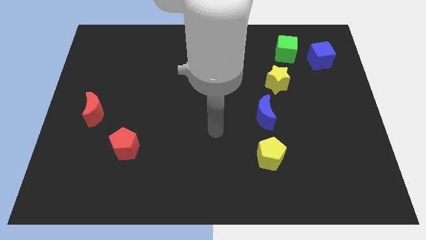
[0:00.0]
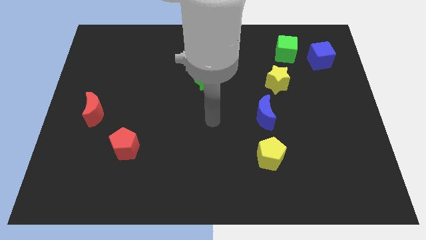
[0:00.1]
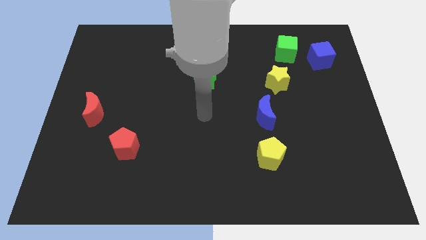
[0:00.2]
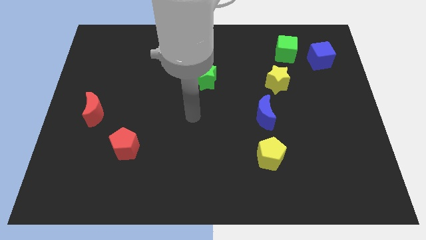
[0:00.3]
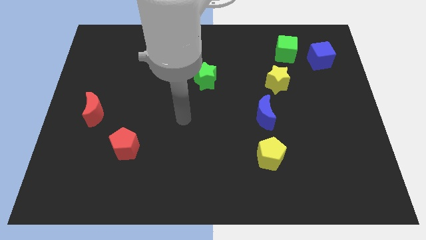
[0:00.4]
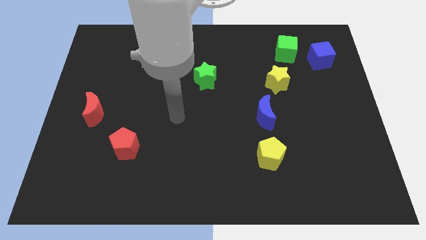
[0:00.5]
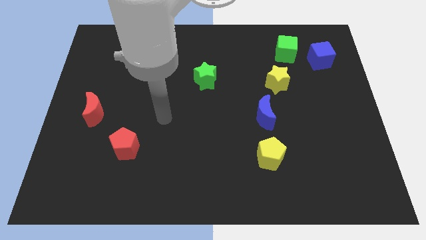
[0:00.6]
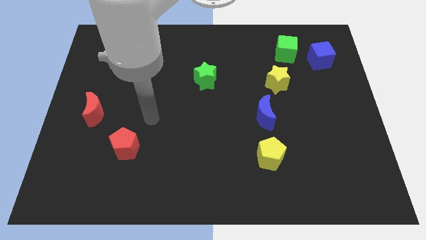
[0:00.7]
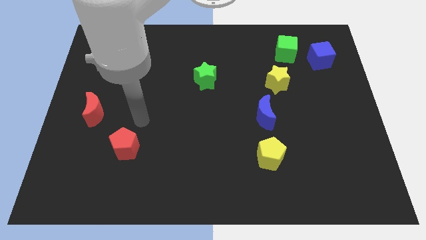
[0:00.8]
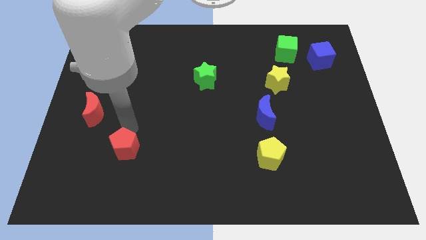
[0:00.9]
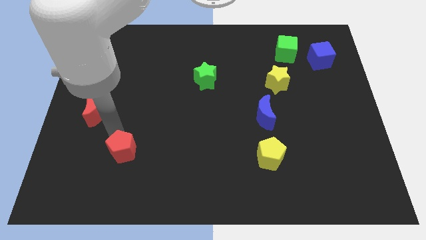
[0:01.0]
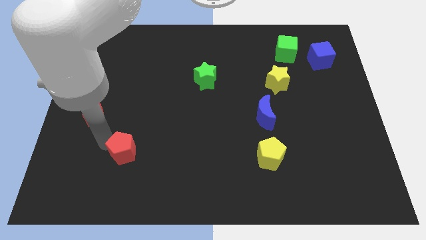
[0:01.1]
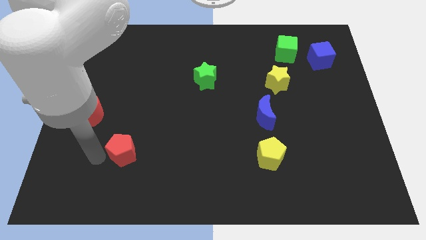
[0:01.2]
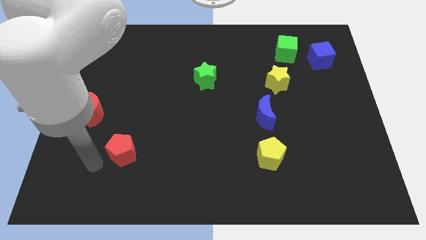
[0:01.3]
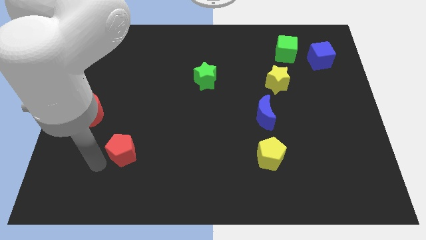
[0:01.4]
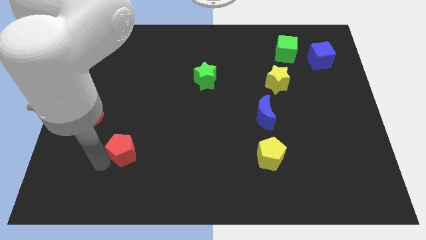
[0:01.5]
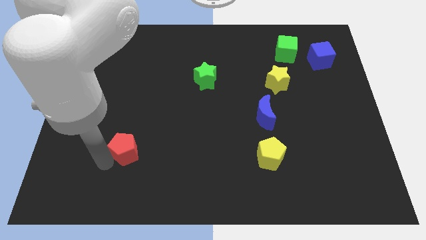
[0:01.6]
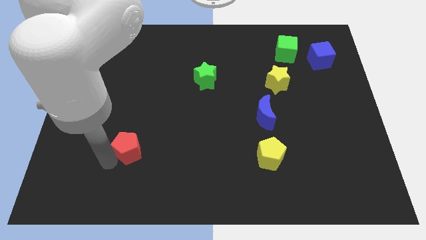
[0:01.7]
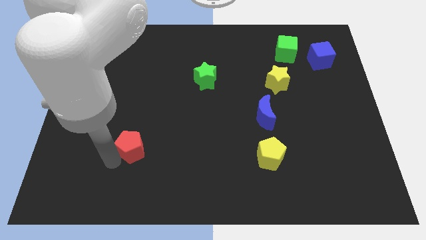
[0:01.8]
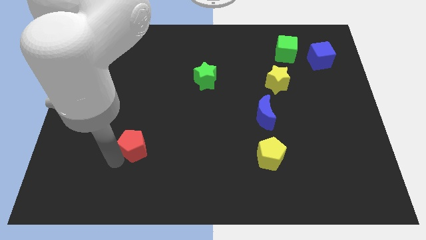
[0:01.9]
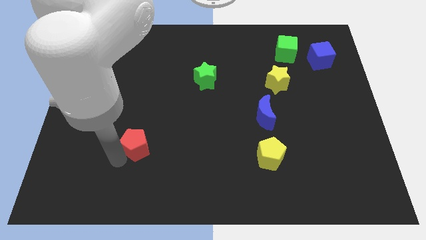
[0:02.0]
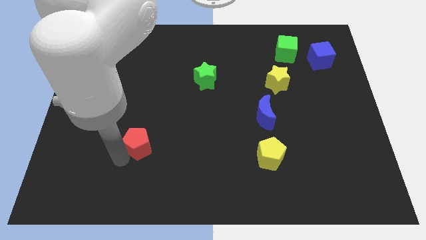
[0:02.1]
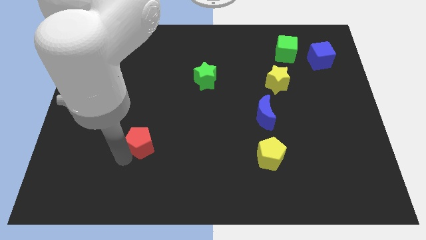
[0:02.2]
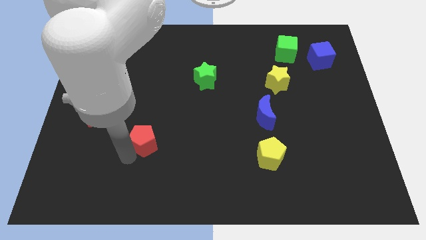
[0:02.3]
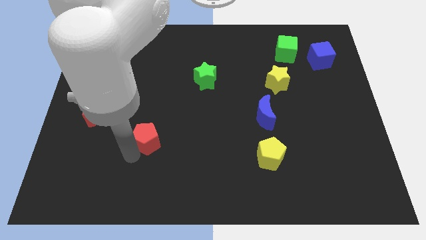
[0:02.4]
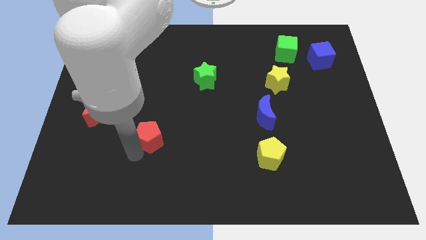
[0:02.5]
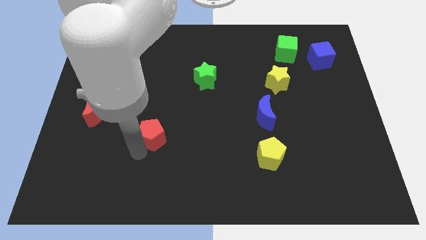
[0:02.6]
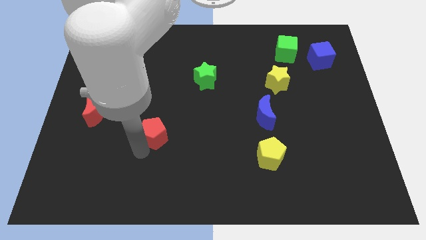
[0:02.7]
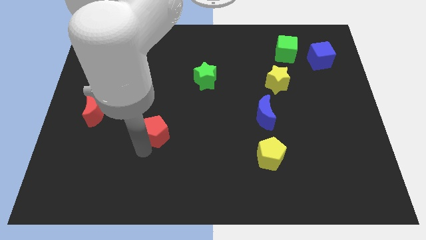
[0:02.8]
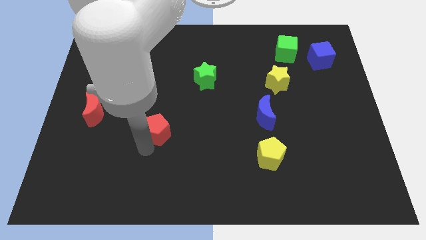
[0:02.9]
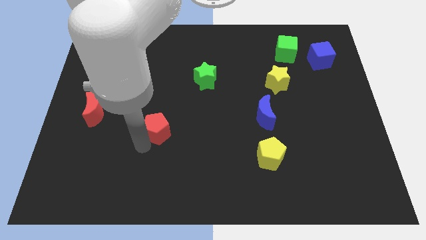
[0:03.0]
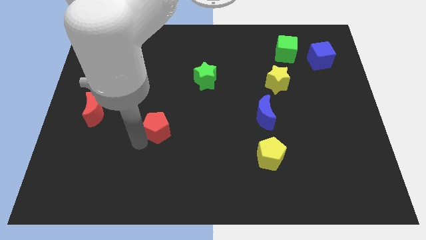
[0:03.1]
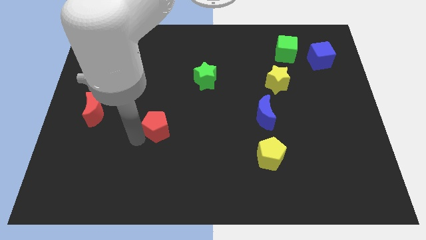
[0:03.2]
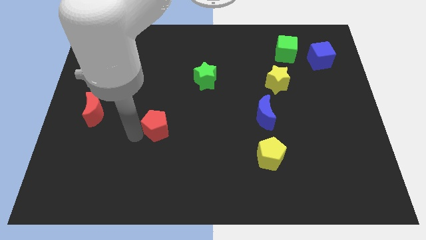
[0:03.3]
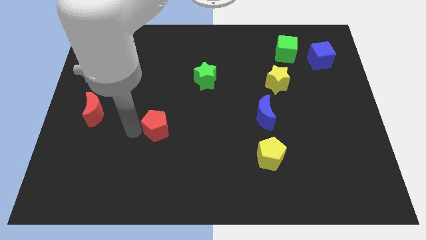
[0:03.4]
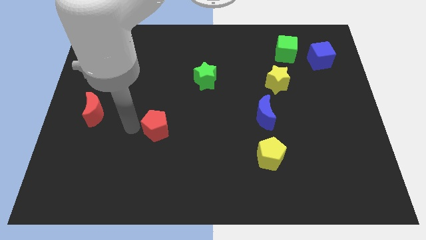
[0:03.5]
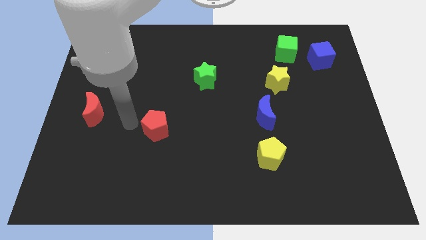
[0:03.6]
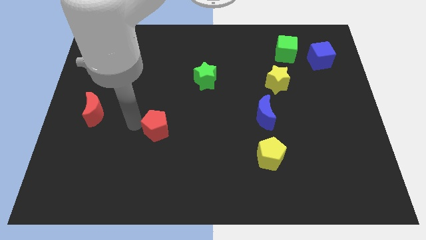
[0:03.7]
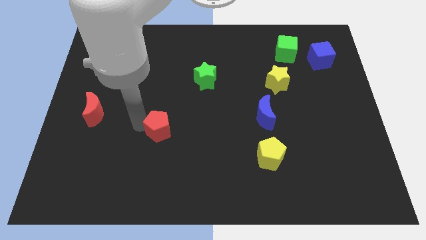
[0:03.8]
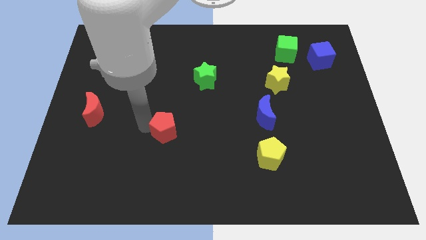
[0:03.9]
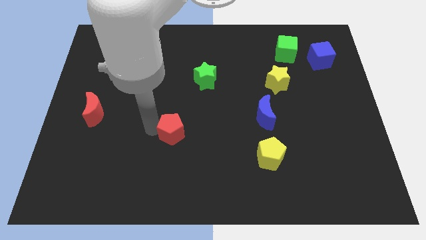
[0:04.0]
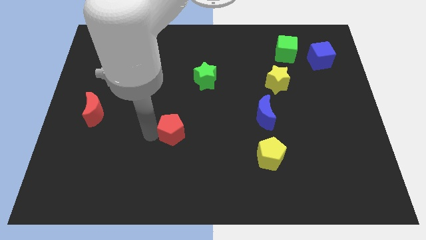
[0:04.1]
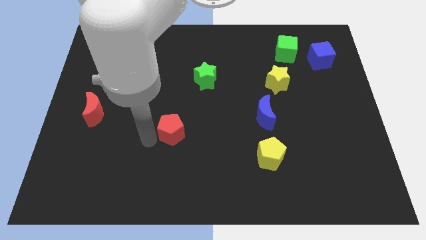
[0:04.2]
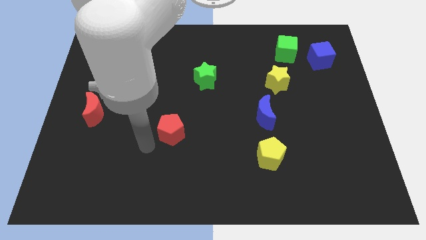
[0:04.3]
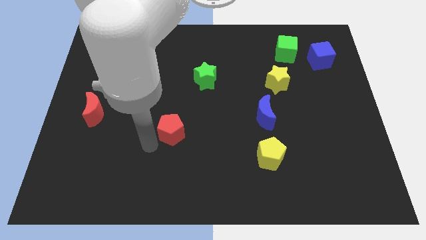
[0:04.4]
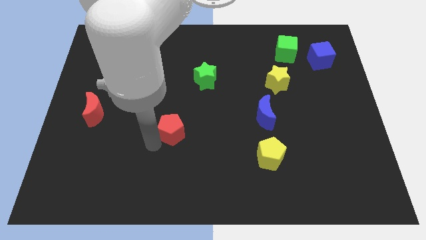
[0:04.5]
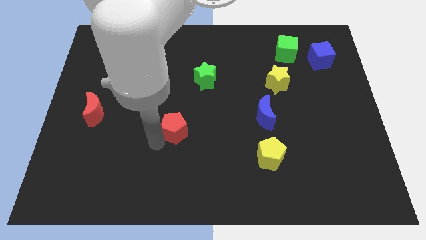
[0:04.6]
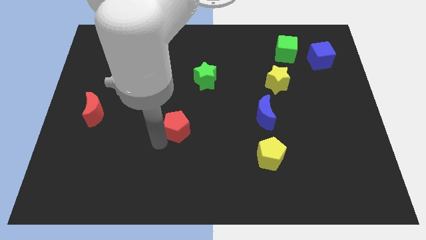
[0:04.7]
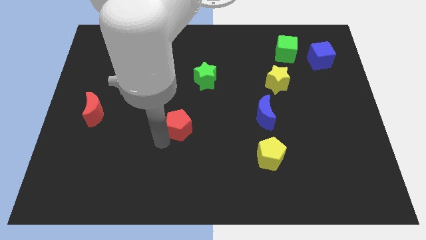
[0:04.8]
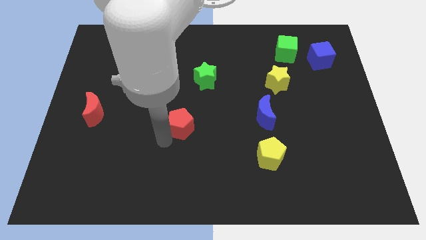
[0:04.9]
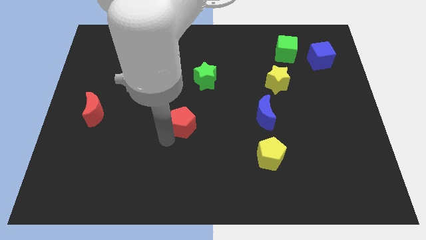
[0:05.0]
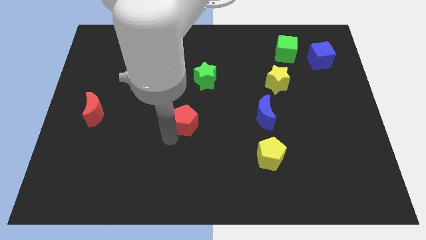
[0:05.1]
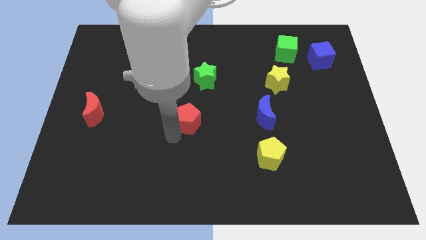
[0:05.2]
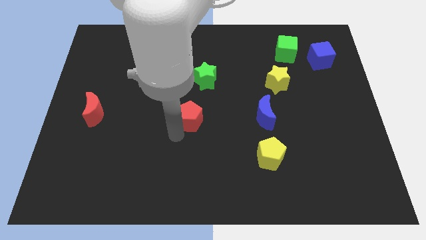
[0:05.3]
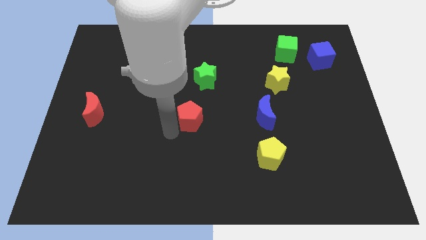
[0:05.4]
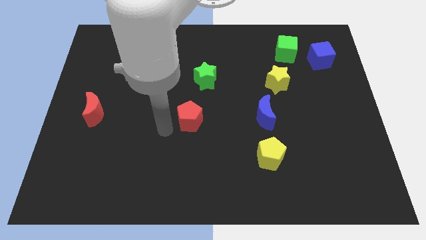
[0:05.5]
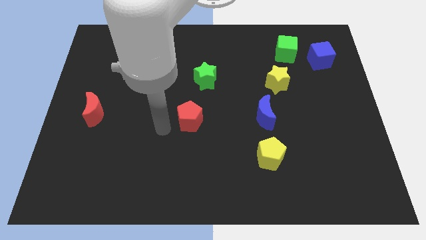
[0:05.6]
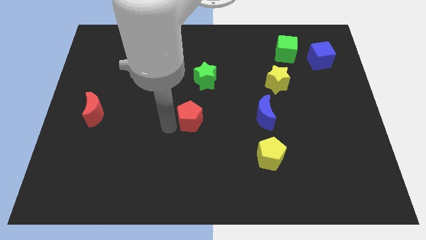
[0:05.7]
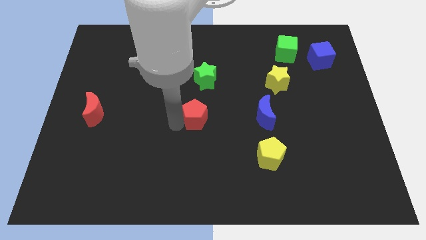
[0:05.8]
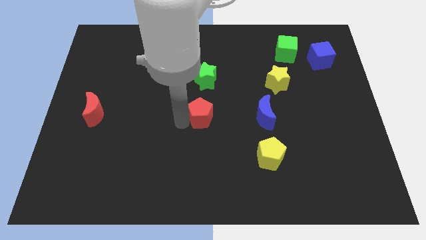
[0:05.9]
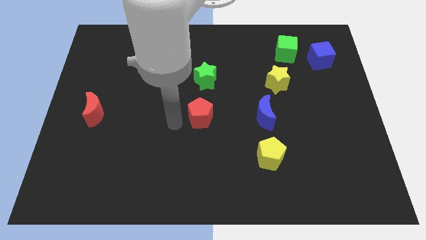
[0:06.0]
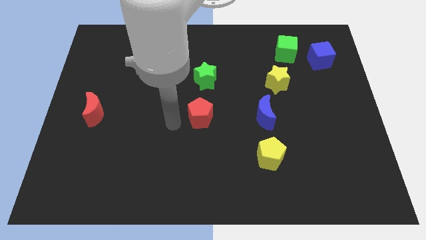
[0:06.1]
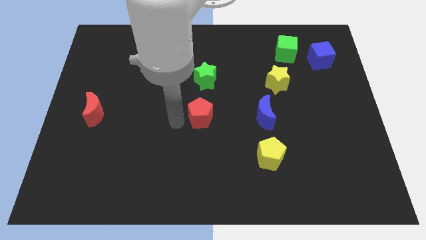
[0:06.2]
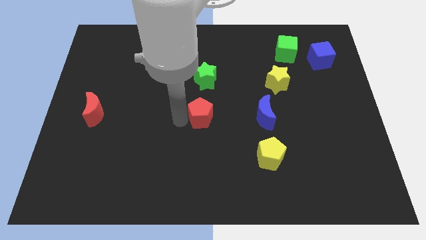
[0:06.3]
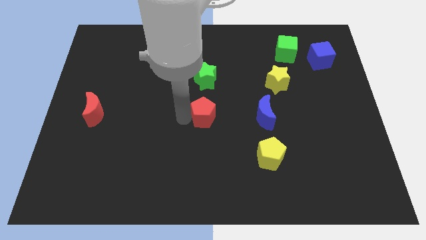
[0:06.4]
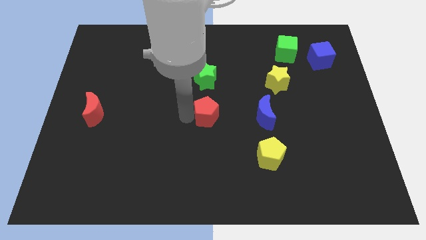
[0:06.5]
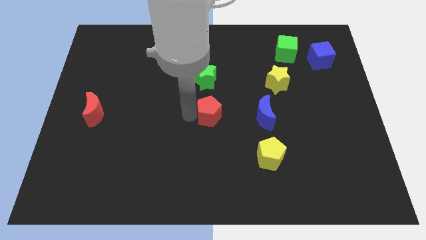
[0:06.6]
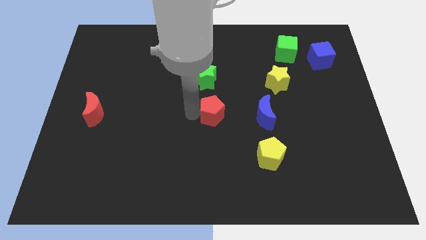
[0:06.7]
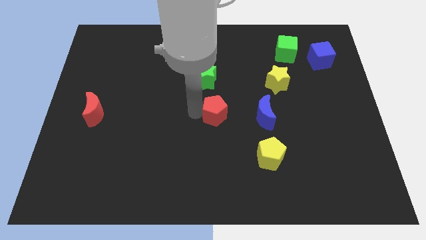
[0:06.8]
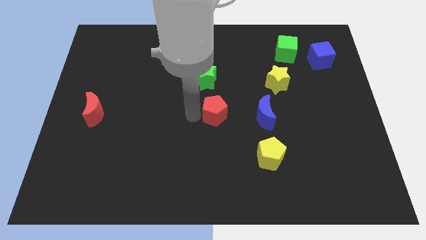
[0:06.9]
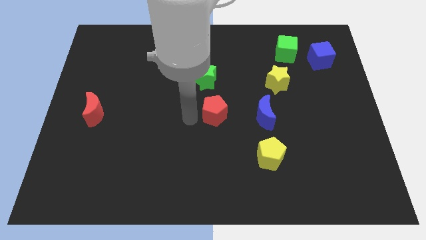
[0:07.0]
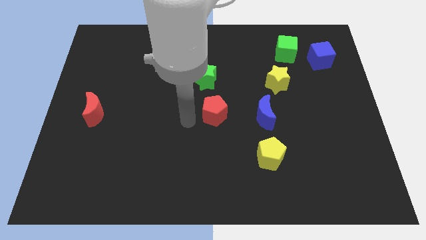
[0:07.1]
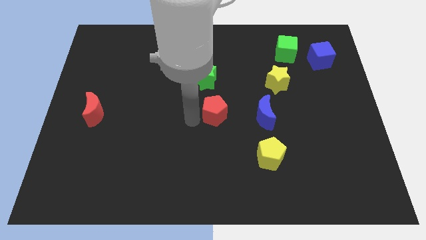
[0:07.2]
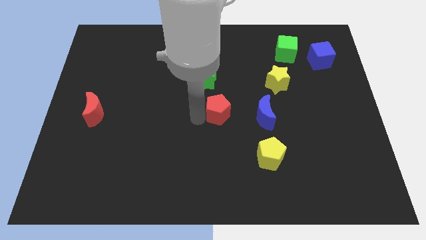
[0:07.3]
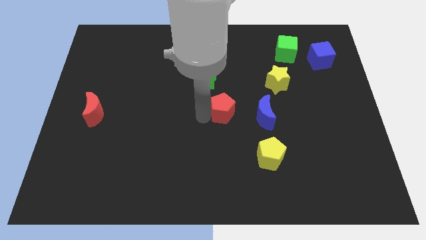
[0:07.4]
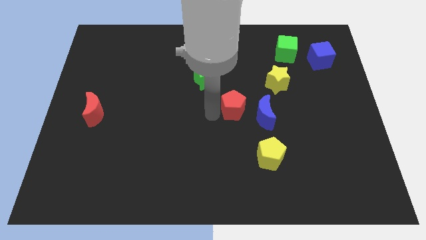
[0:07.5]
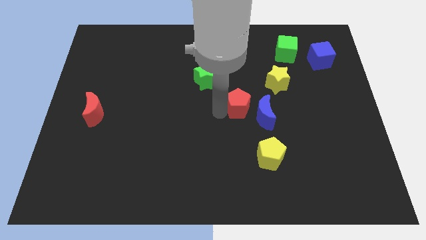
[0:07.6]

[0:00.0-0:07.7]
move the red pentagon to the bottom left of the yellow star
